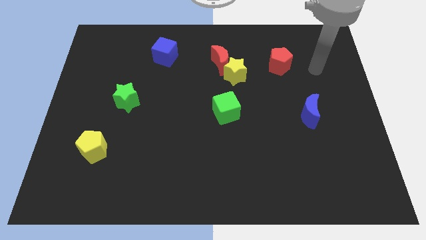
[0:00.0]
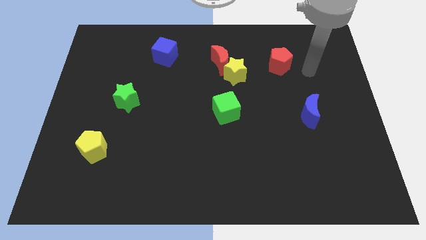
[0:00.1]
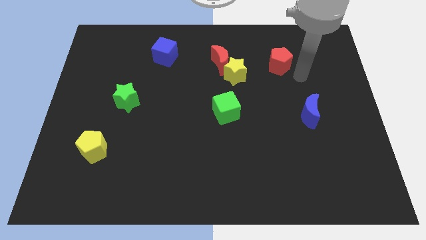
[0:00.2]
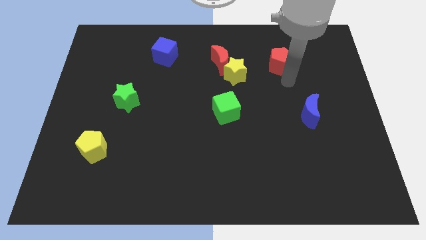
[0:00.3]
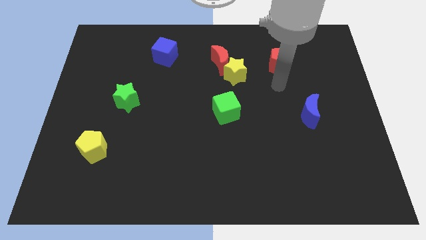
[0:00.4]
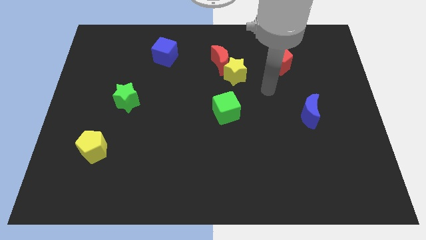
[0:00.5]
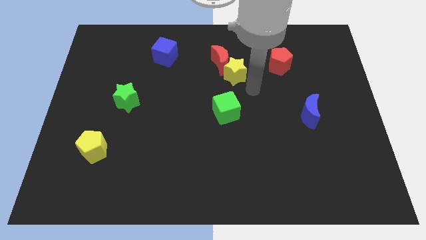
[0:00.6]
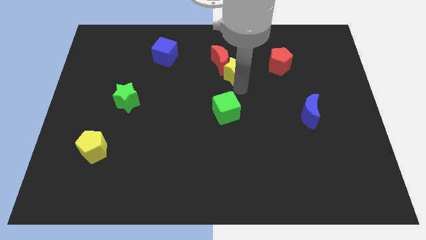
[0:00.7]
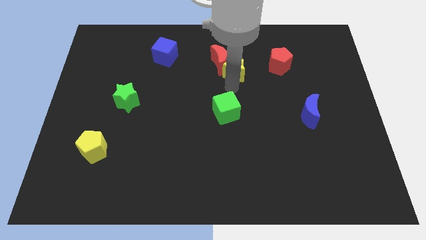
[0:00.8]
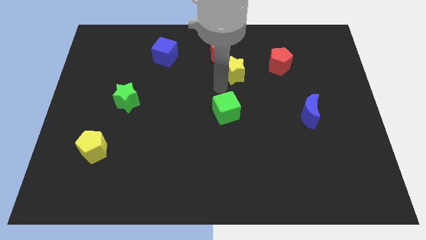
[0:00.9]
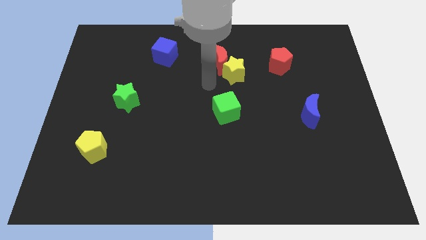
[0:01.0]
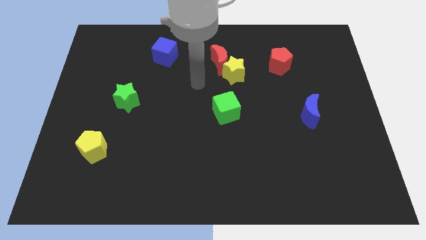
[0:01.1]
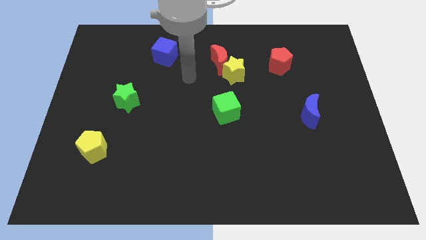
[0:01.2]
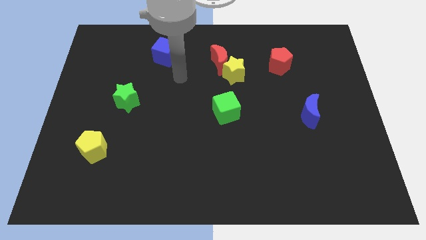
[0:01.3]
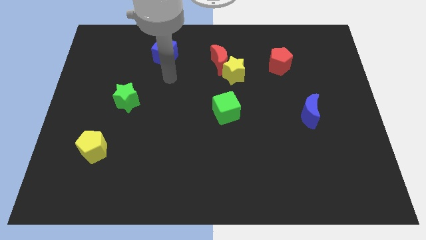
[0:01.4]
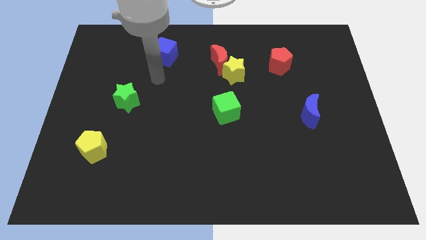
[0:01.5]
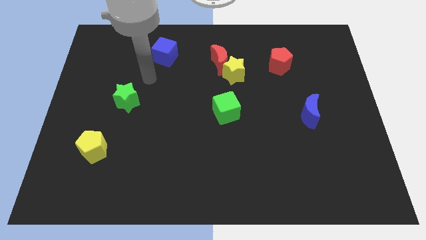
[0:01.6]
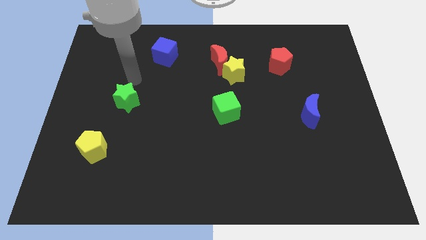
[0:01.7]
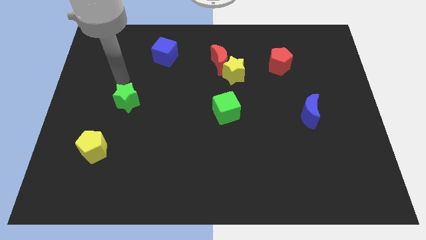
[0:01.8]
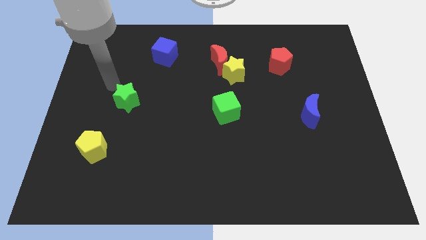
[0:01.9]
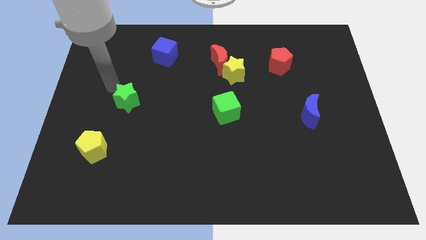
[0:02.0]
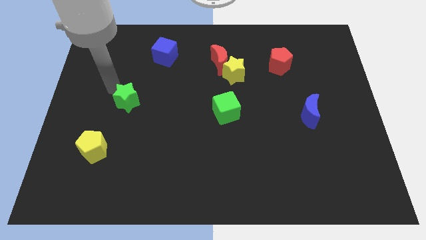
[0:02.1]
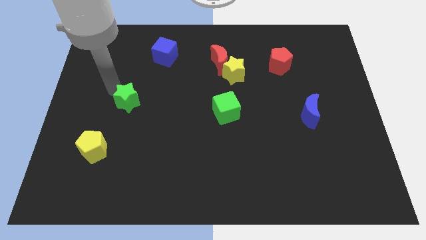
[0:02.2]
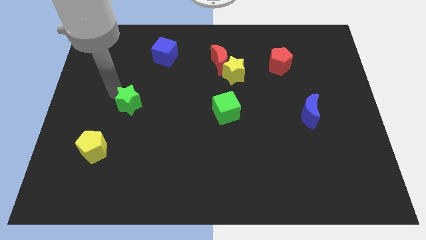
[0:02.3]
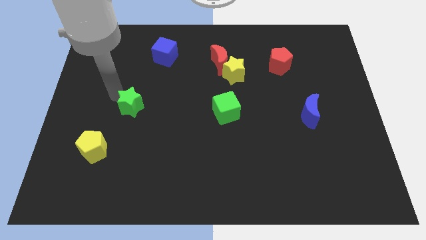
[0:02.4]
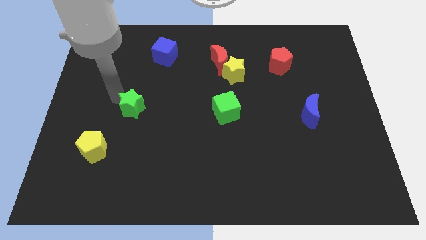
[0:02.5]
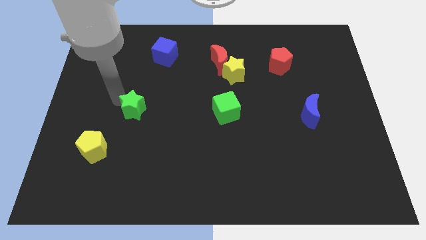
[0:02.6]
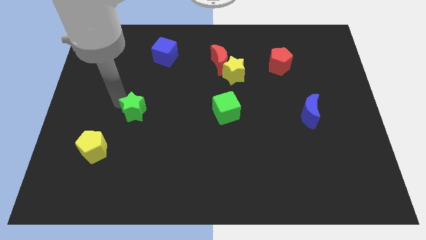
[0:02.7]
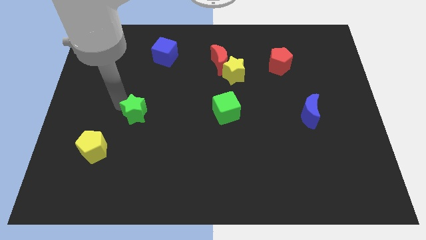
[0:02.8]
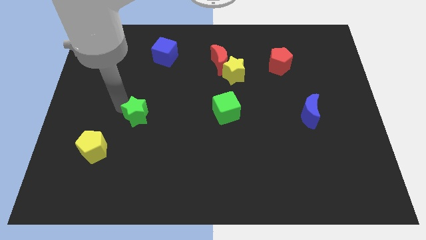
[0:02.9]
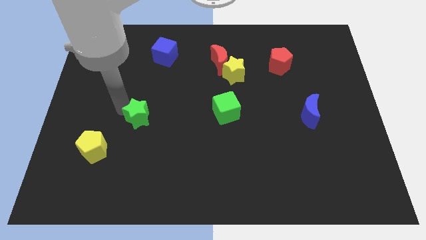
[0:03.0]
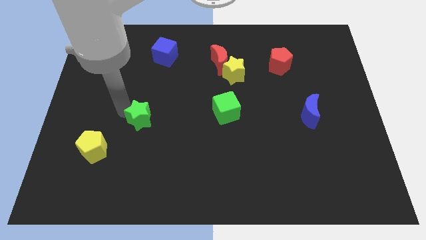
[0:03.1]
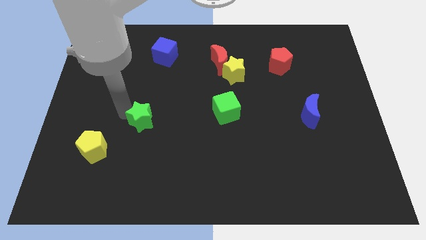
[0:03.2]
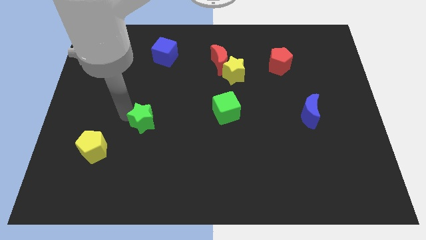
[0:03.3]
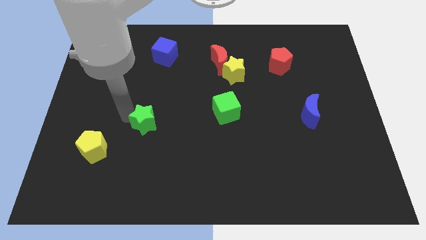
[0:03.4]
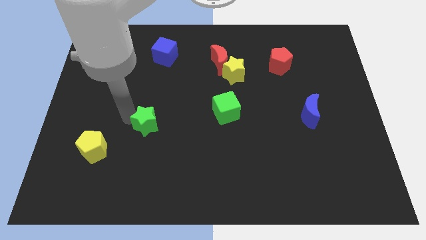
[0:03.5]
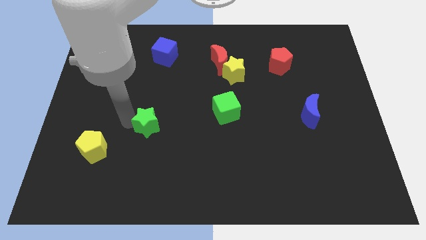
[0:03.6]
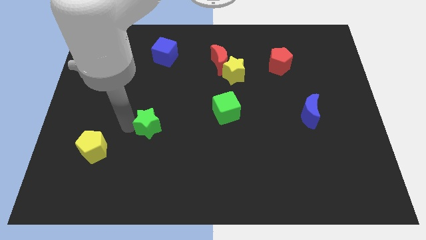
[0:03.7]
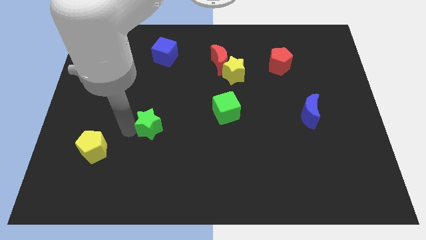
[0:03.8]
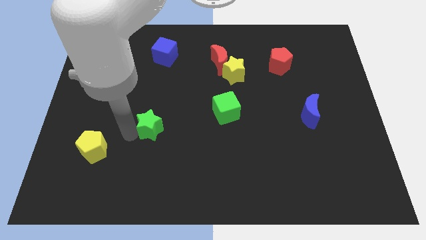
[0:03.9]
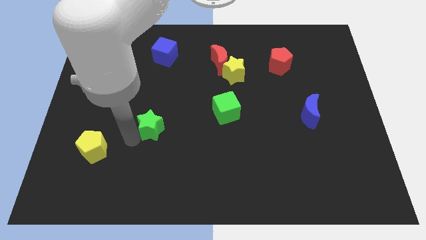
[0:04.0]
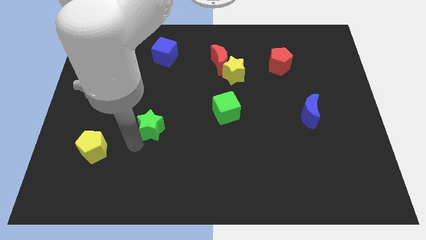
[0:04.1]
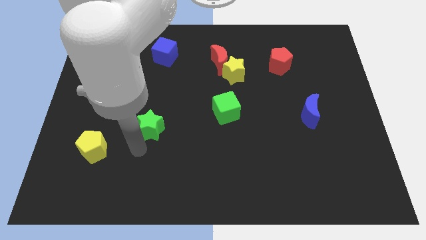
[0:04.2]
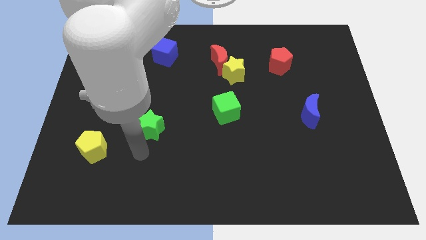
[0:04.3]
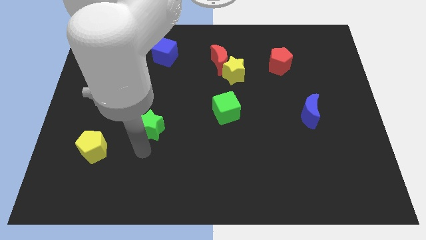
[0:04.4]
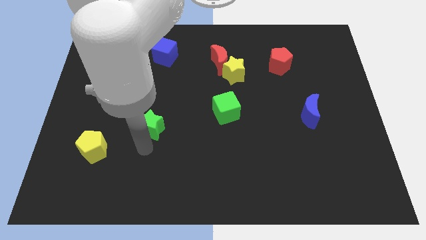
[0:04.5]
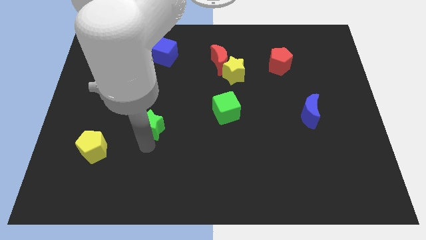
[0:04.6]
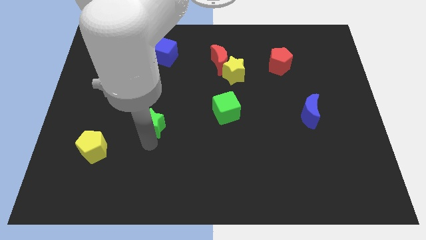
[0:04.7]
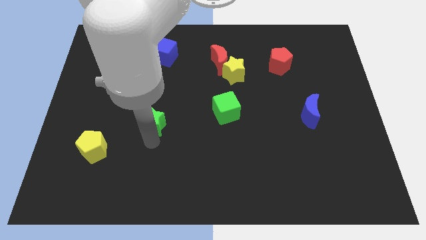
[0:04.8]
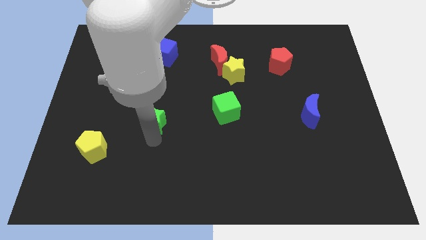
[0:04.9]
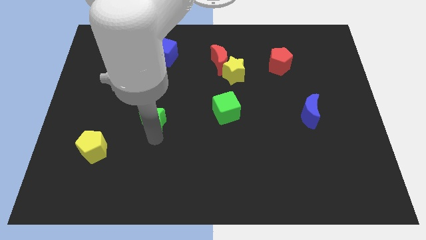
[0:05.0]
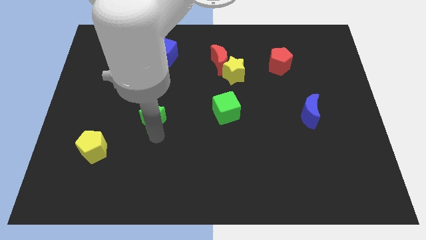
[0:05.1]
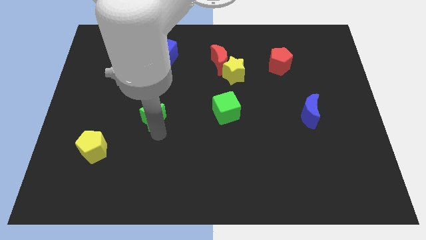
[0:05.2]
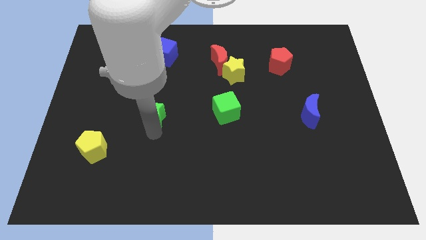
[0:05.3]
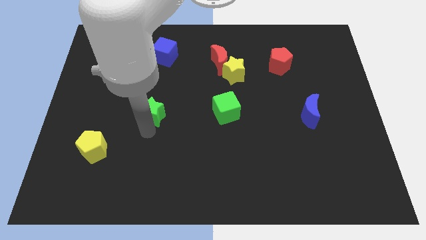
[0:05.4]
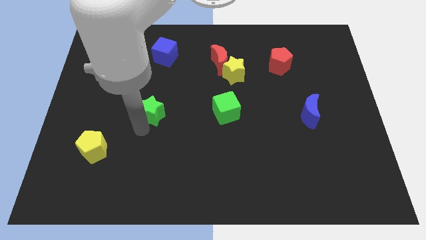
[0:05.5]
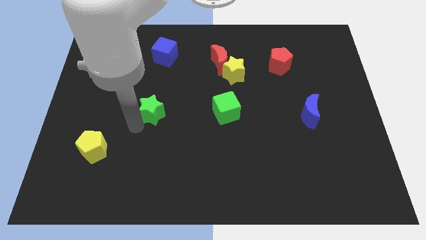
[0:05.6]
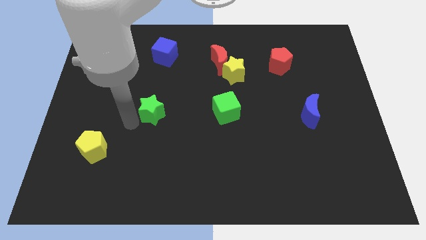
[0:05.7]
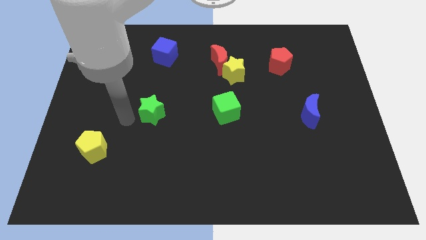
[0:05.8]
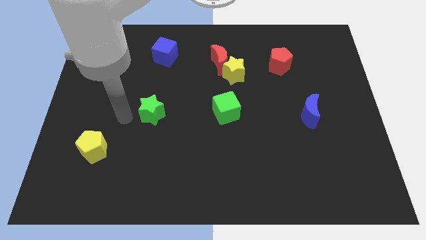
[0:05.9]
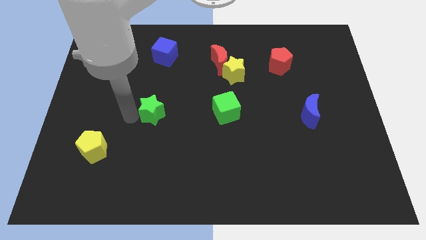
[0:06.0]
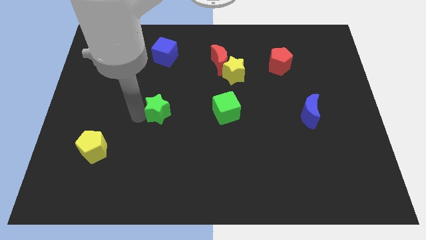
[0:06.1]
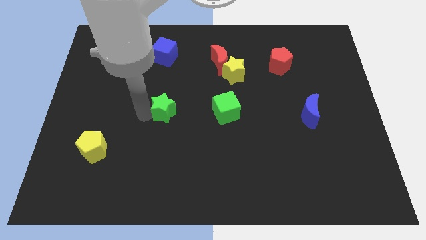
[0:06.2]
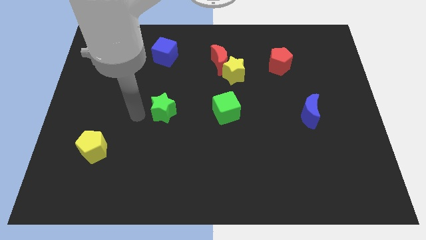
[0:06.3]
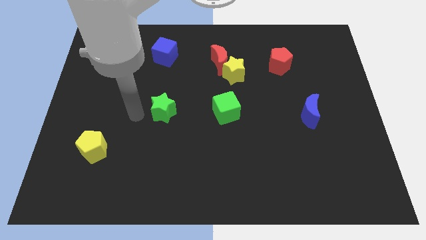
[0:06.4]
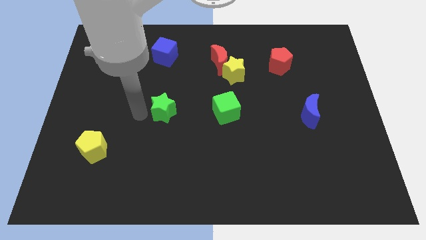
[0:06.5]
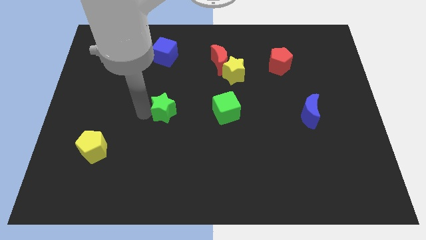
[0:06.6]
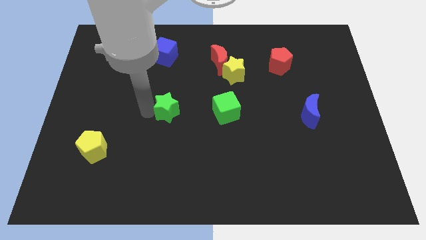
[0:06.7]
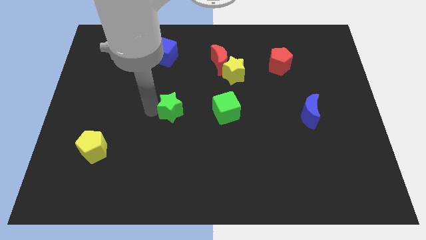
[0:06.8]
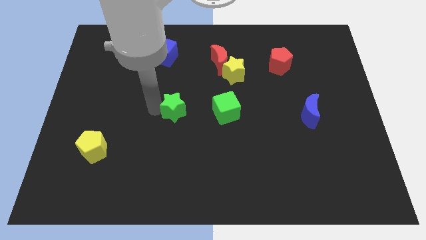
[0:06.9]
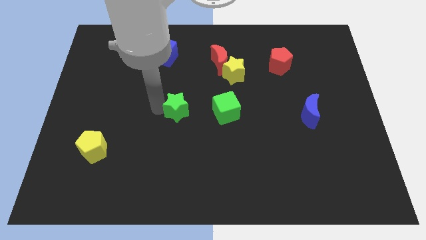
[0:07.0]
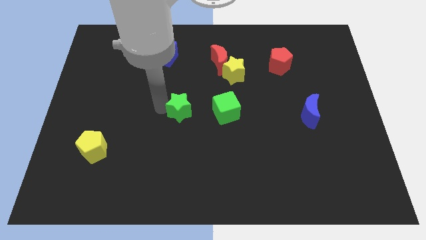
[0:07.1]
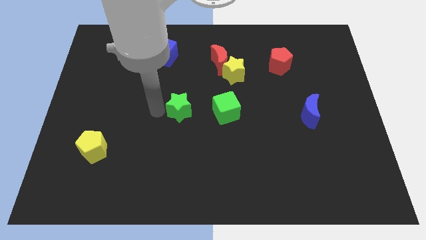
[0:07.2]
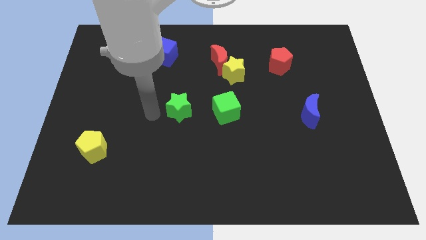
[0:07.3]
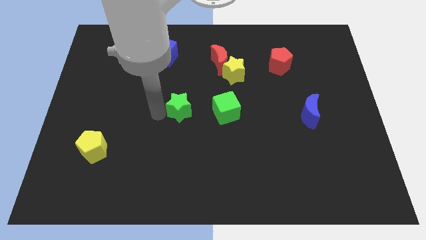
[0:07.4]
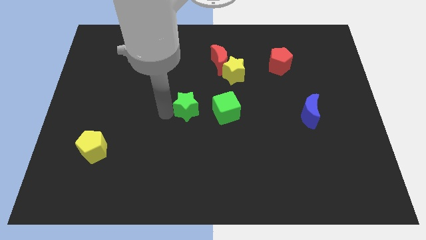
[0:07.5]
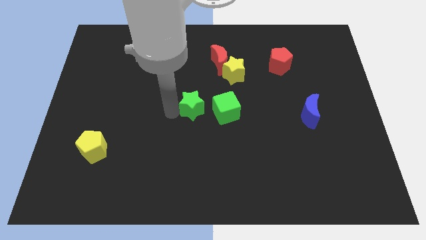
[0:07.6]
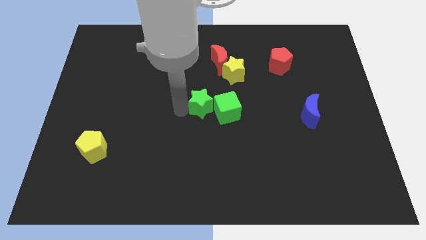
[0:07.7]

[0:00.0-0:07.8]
move the green star towards the green cube

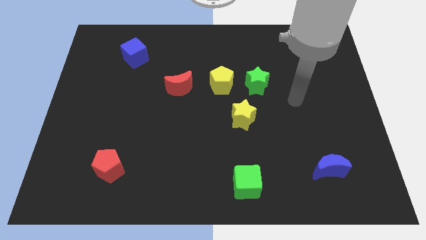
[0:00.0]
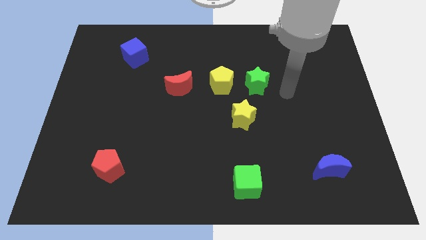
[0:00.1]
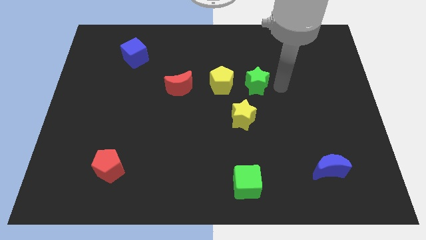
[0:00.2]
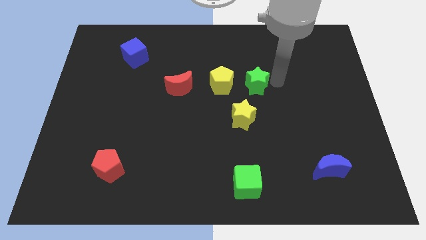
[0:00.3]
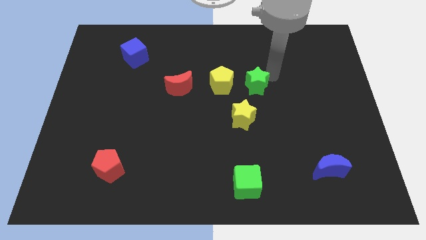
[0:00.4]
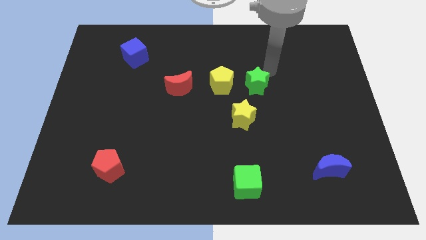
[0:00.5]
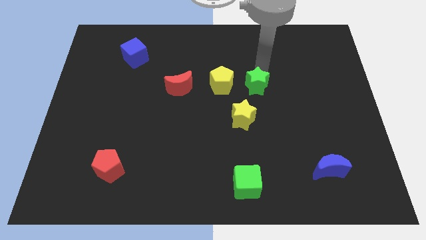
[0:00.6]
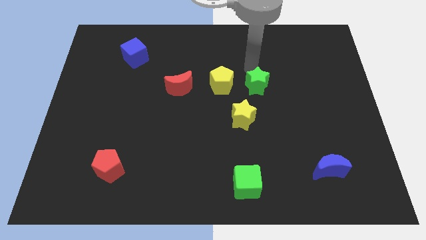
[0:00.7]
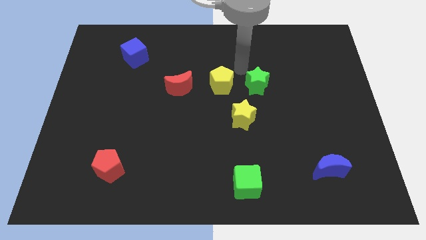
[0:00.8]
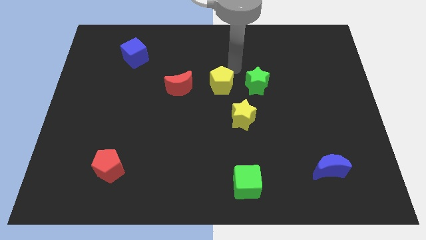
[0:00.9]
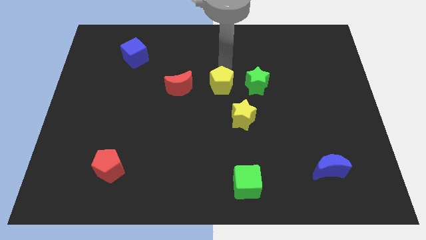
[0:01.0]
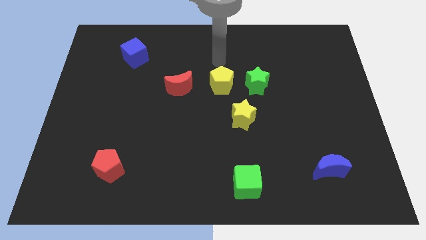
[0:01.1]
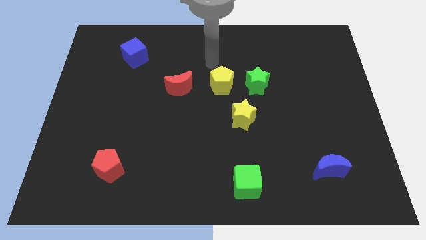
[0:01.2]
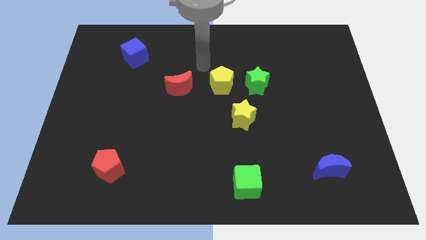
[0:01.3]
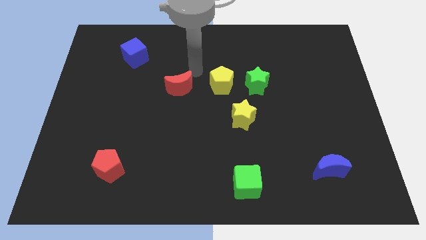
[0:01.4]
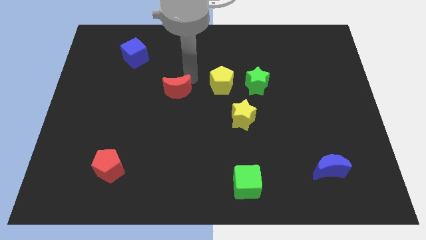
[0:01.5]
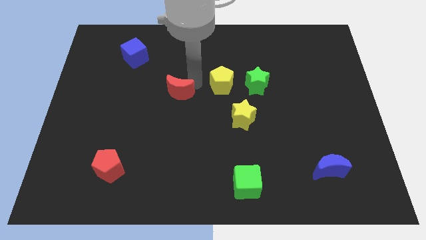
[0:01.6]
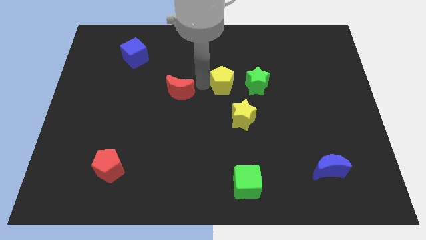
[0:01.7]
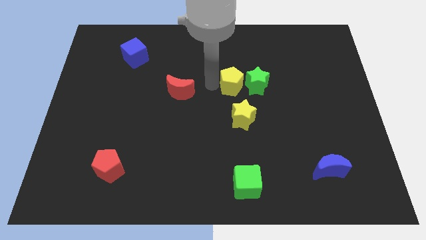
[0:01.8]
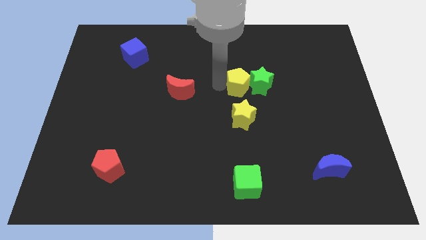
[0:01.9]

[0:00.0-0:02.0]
move the yellow pentagon next to the green star
